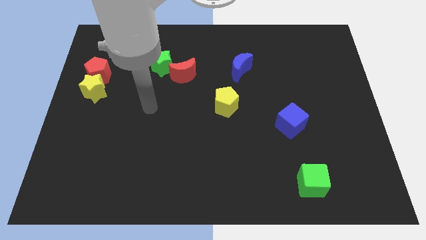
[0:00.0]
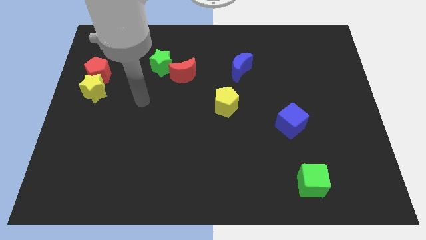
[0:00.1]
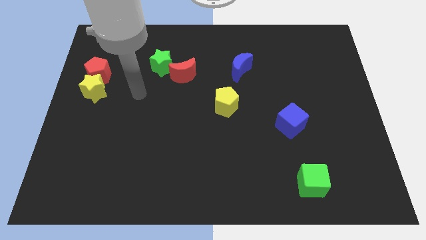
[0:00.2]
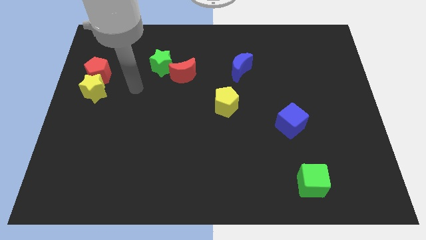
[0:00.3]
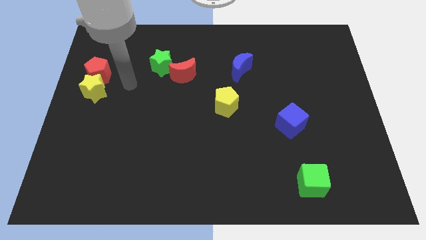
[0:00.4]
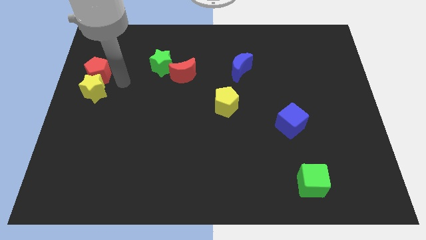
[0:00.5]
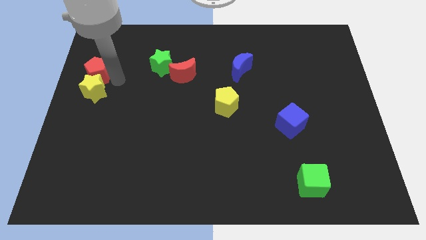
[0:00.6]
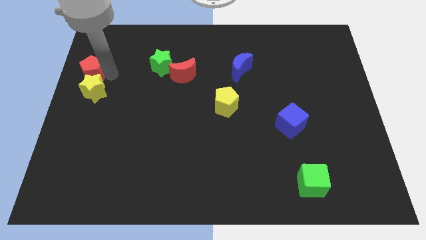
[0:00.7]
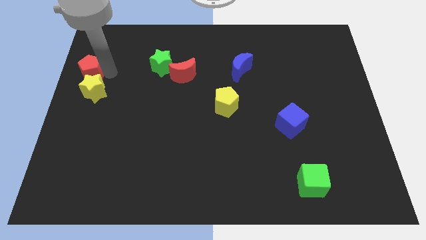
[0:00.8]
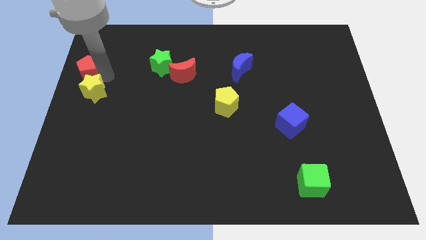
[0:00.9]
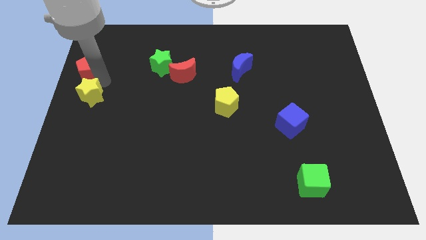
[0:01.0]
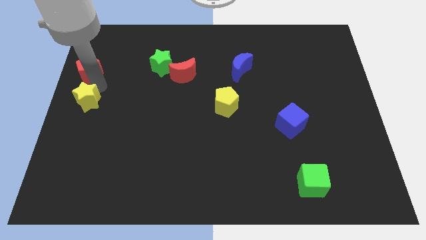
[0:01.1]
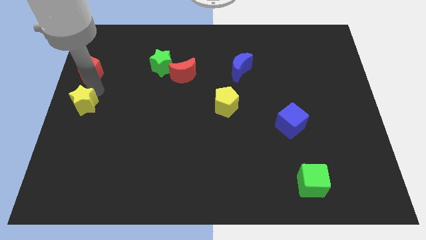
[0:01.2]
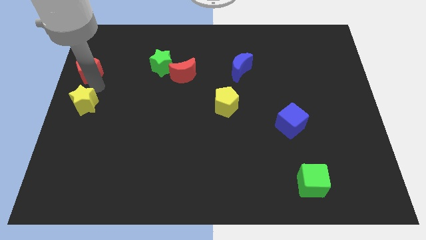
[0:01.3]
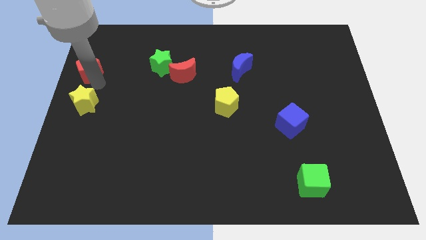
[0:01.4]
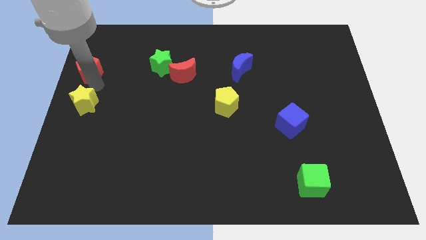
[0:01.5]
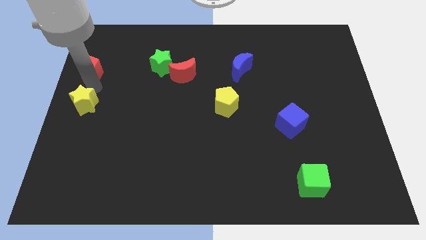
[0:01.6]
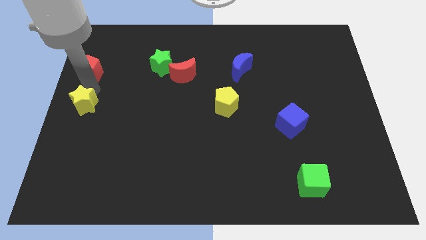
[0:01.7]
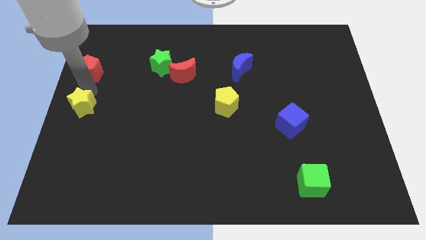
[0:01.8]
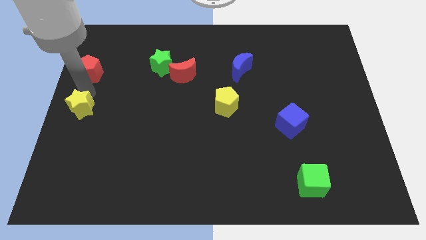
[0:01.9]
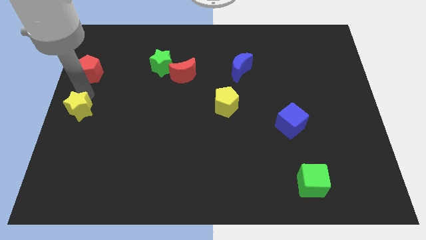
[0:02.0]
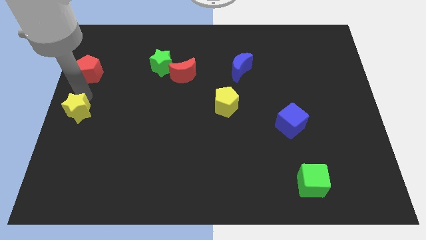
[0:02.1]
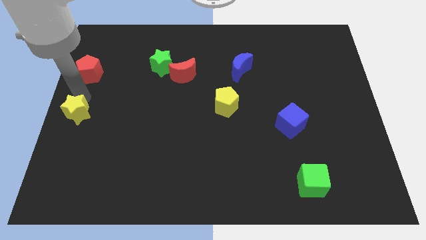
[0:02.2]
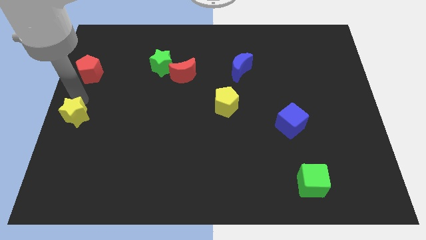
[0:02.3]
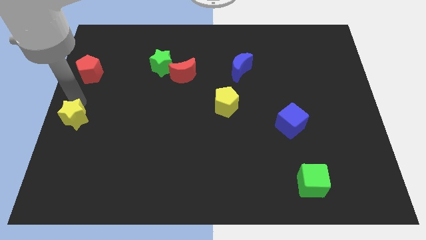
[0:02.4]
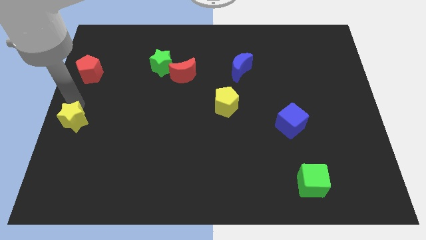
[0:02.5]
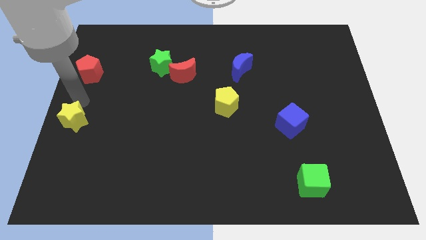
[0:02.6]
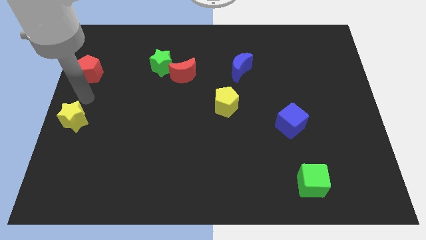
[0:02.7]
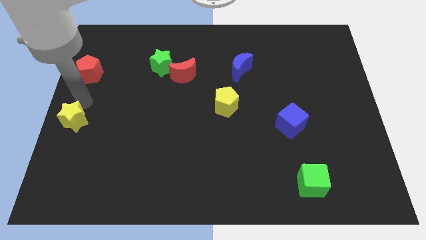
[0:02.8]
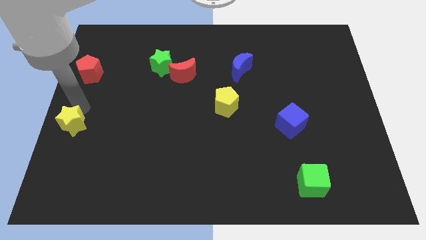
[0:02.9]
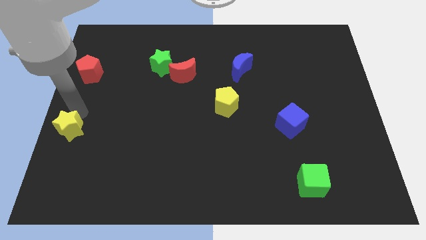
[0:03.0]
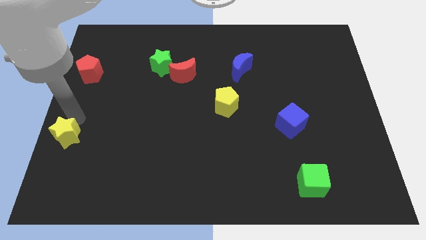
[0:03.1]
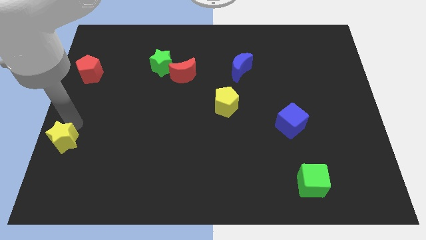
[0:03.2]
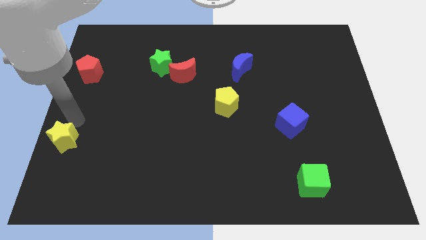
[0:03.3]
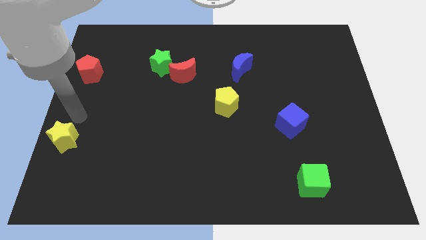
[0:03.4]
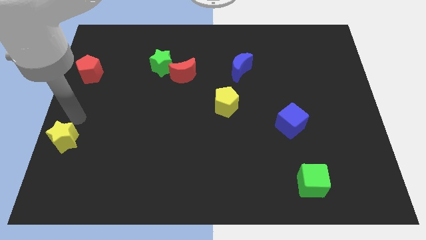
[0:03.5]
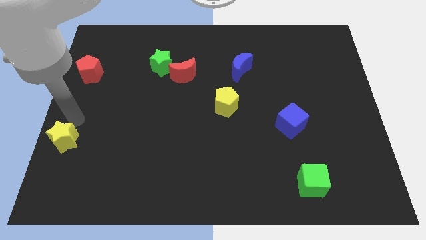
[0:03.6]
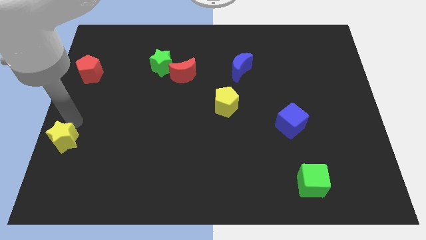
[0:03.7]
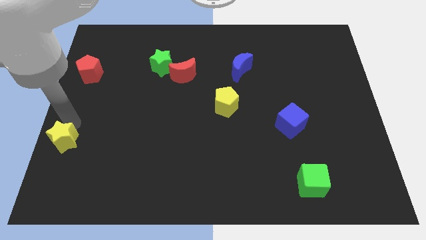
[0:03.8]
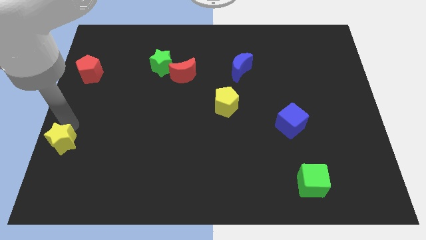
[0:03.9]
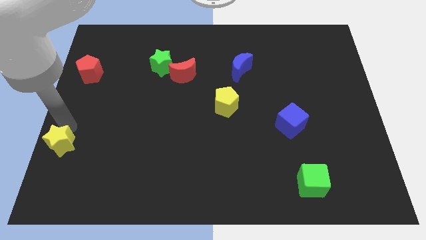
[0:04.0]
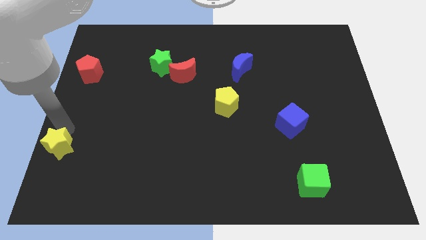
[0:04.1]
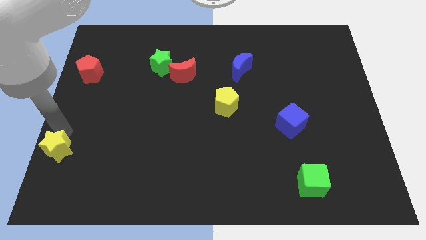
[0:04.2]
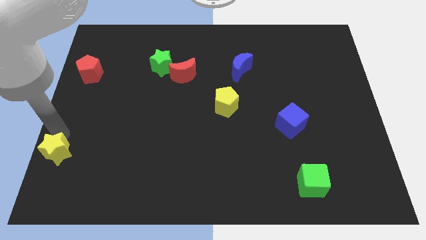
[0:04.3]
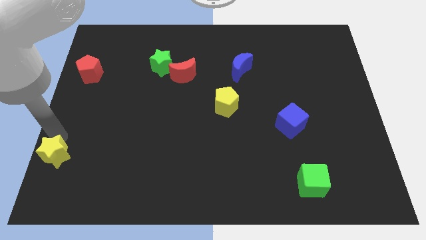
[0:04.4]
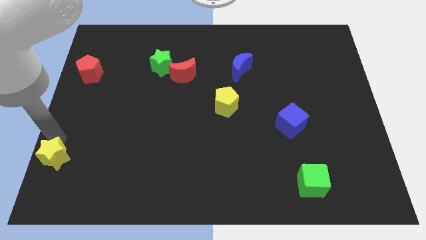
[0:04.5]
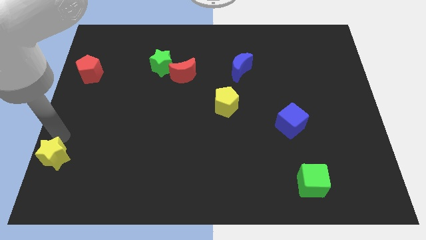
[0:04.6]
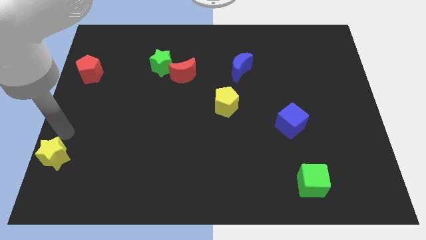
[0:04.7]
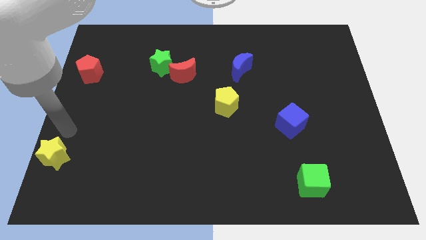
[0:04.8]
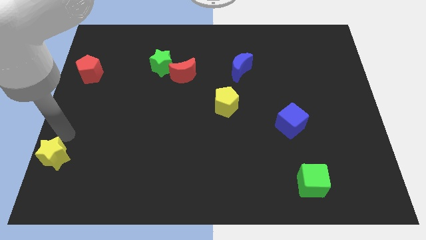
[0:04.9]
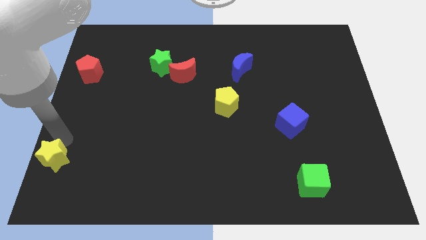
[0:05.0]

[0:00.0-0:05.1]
put the yellow star to the lower left corner

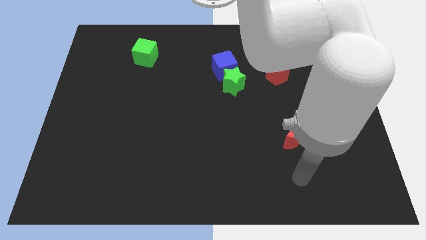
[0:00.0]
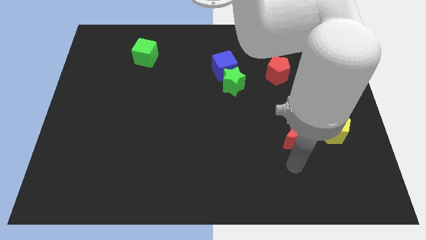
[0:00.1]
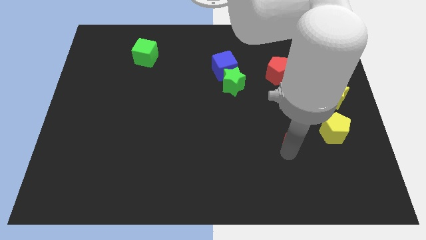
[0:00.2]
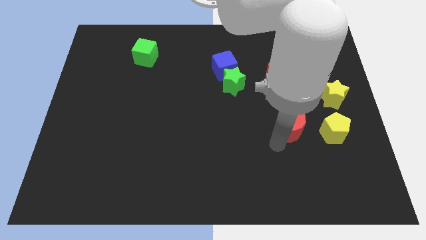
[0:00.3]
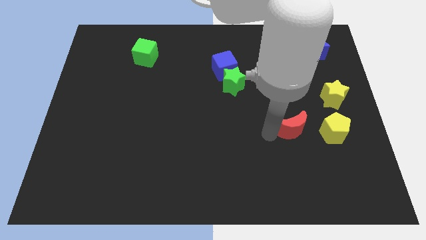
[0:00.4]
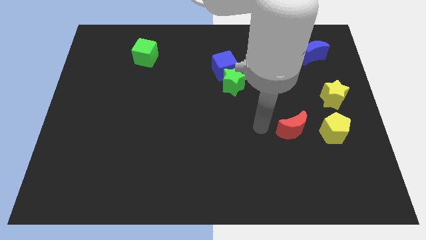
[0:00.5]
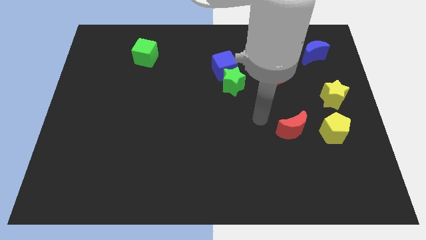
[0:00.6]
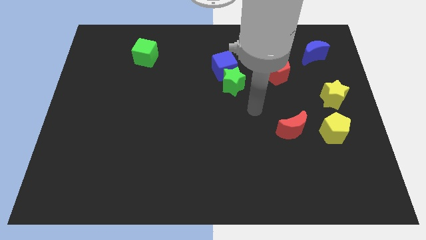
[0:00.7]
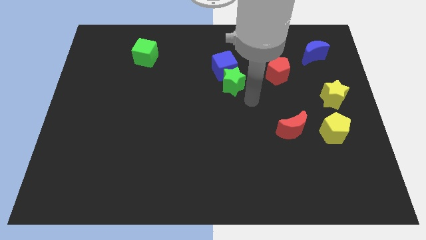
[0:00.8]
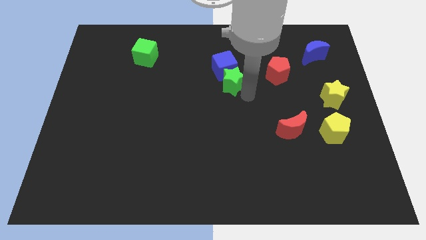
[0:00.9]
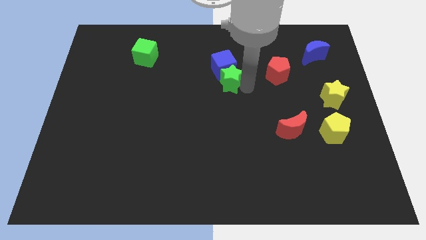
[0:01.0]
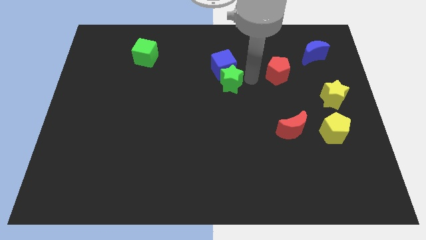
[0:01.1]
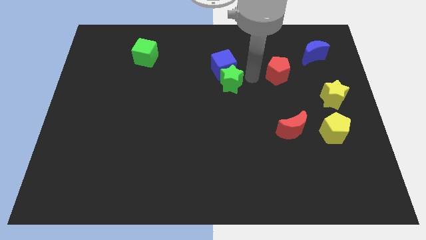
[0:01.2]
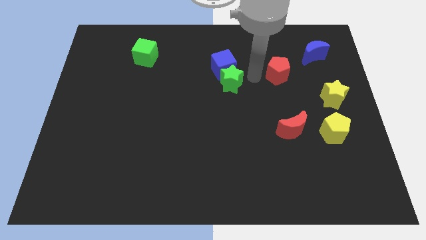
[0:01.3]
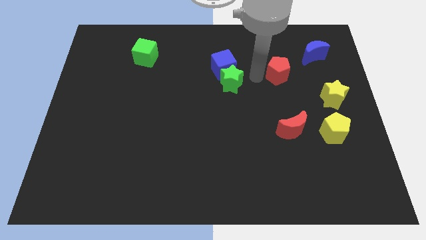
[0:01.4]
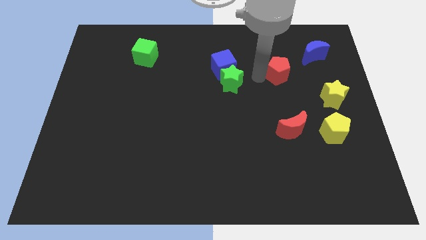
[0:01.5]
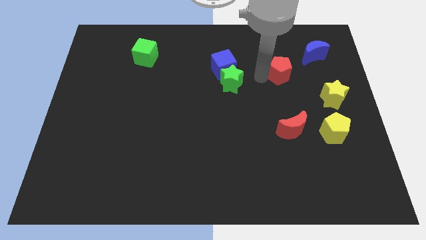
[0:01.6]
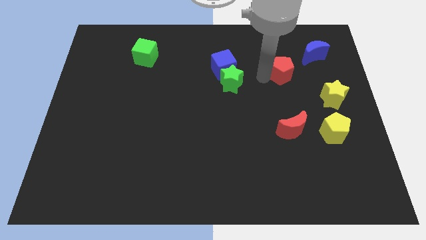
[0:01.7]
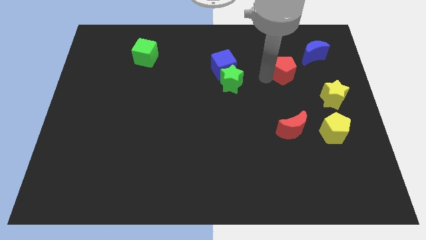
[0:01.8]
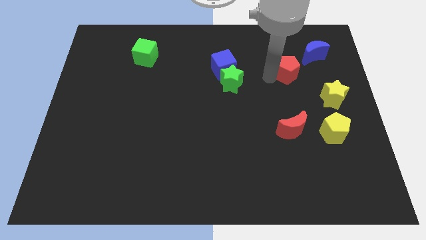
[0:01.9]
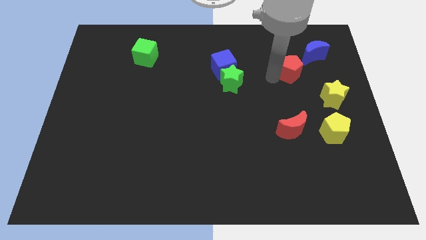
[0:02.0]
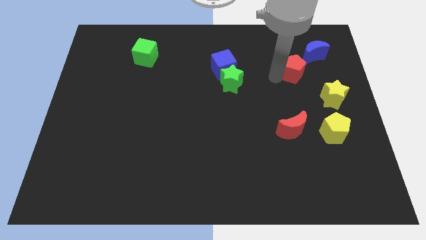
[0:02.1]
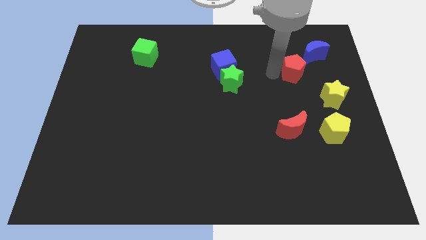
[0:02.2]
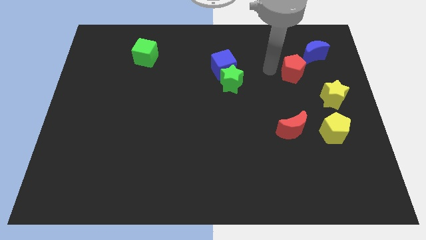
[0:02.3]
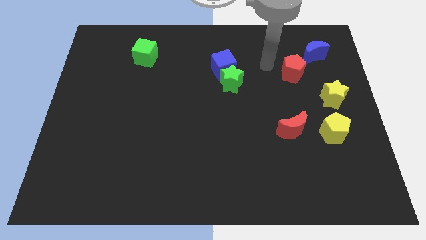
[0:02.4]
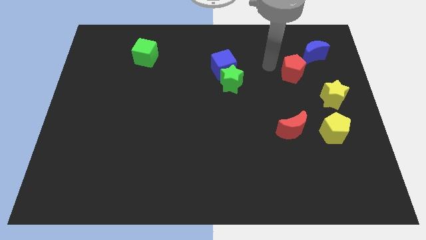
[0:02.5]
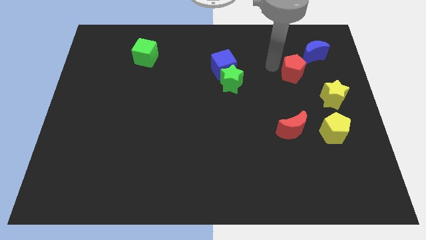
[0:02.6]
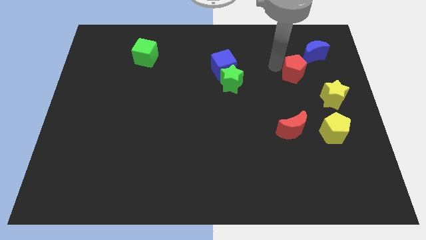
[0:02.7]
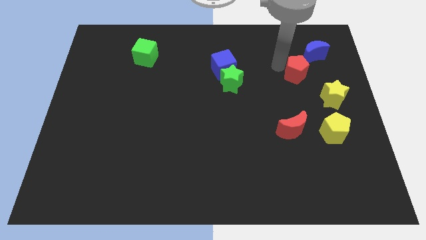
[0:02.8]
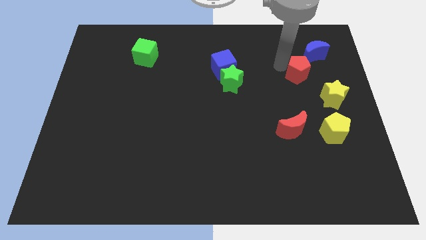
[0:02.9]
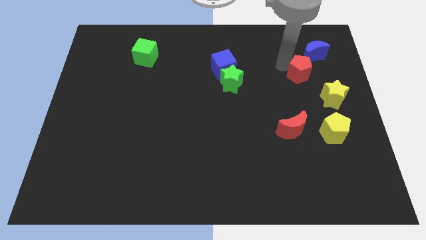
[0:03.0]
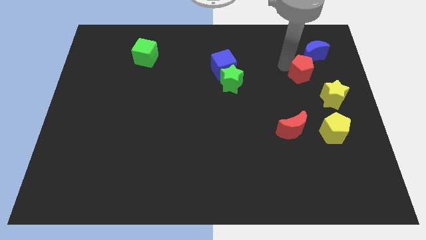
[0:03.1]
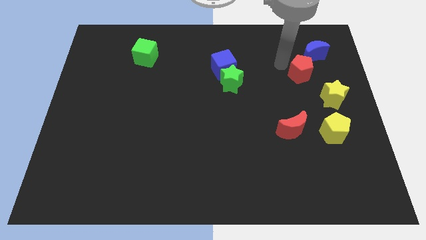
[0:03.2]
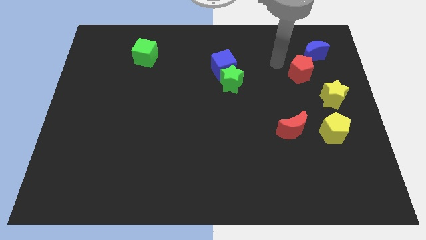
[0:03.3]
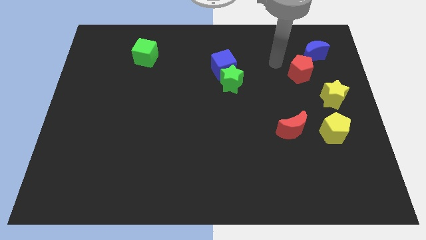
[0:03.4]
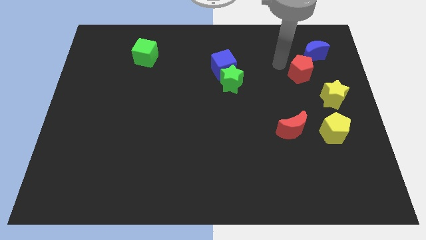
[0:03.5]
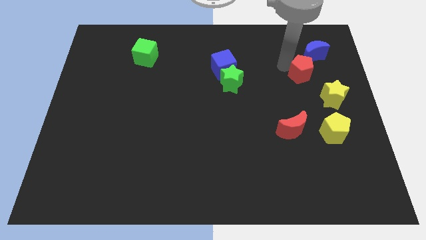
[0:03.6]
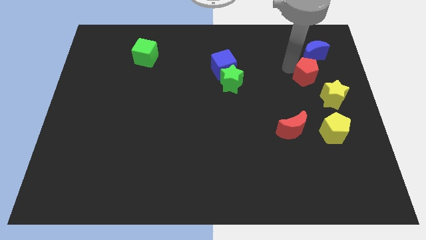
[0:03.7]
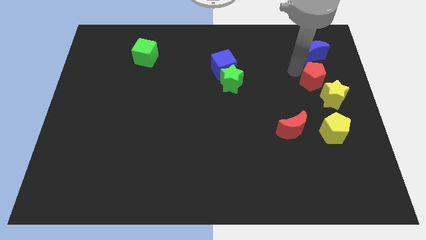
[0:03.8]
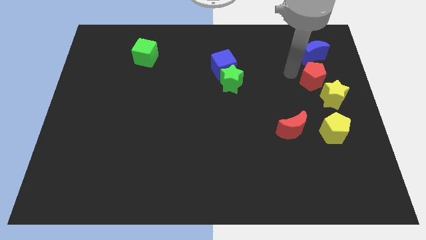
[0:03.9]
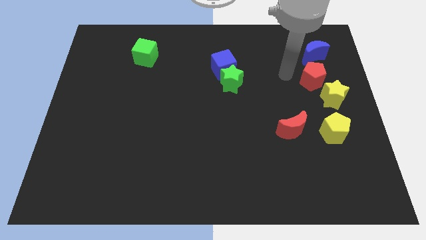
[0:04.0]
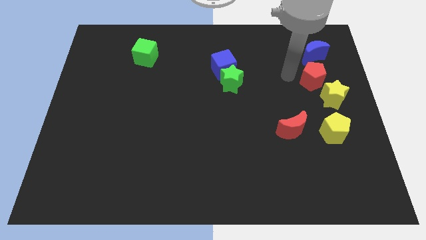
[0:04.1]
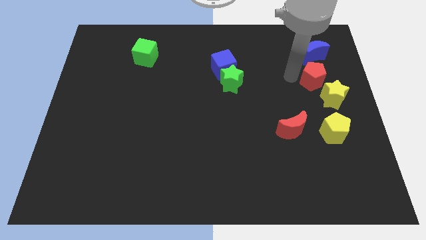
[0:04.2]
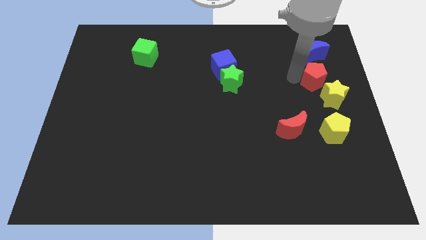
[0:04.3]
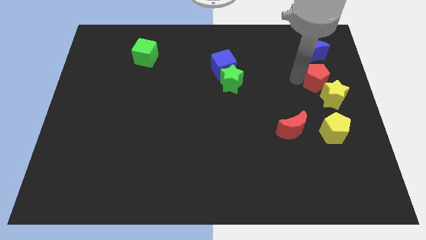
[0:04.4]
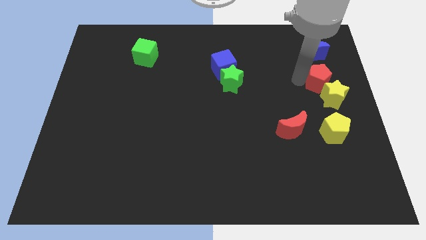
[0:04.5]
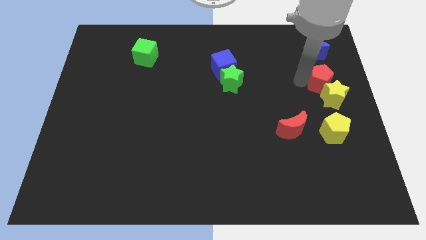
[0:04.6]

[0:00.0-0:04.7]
put the red pentagon to the right side of the board
